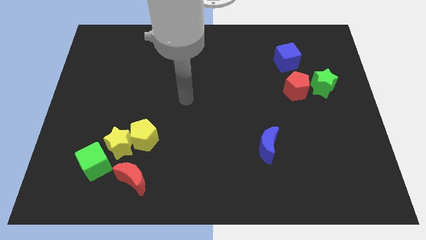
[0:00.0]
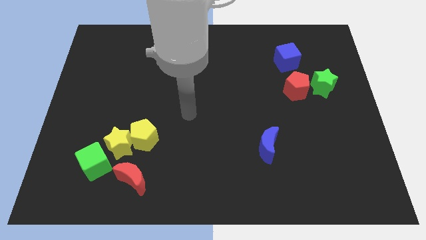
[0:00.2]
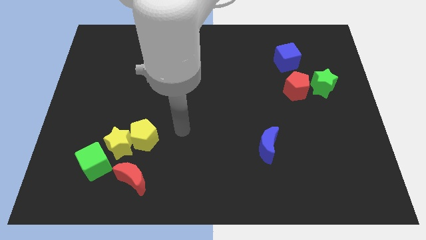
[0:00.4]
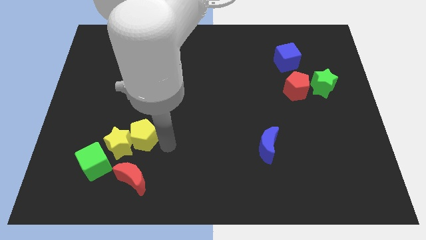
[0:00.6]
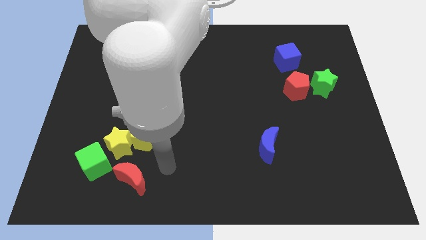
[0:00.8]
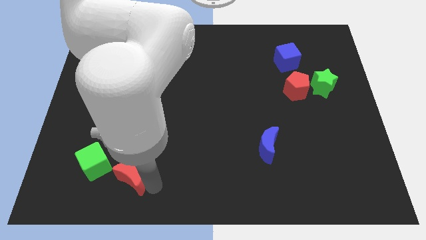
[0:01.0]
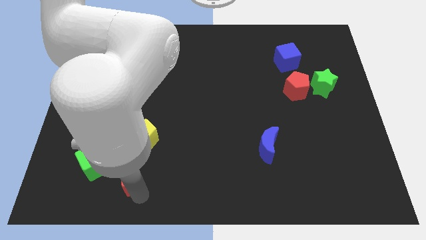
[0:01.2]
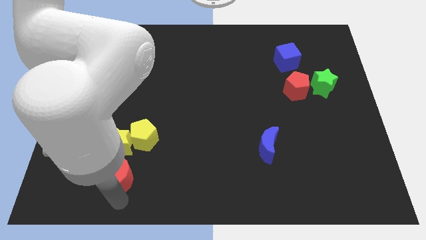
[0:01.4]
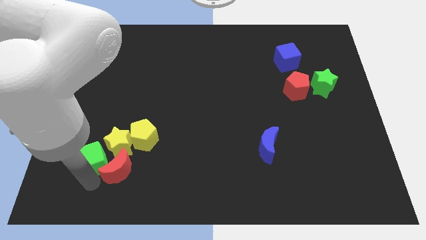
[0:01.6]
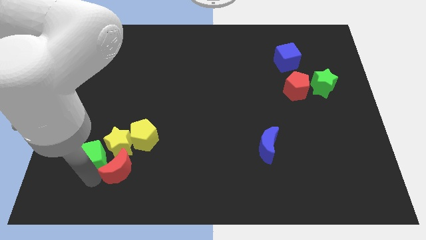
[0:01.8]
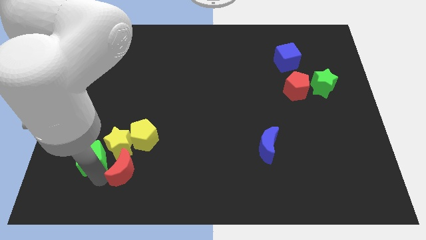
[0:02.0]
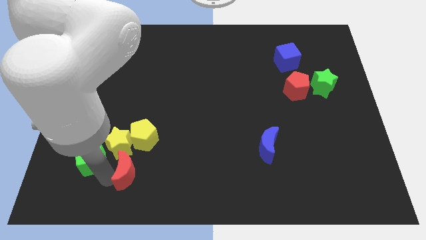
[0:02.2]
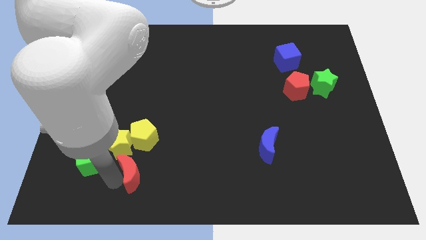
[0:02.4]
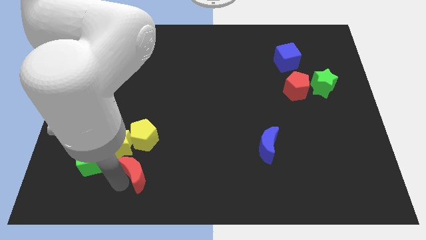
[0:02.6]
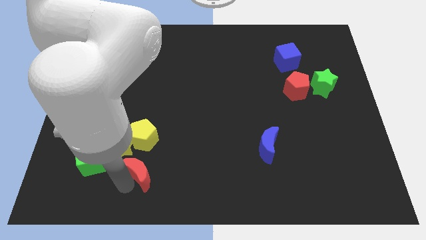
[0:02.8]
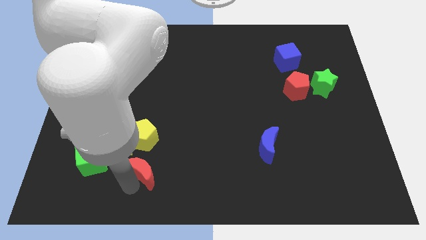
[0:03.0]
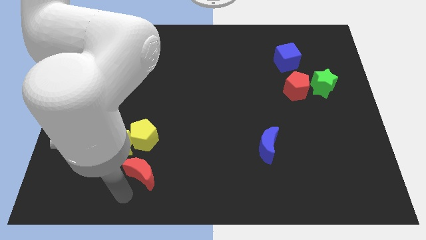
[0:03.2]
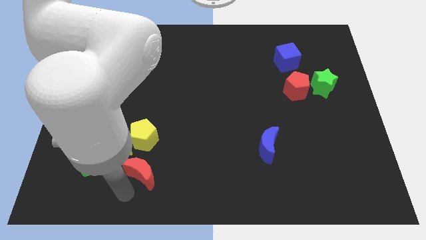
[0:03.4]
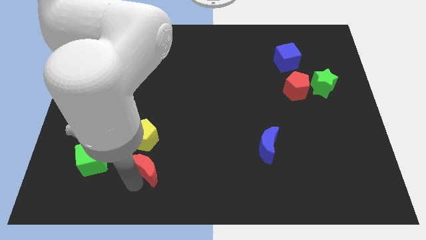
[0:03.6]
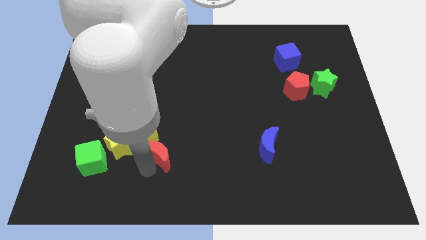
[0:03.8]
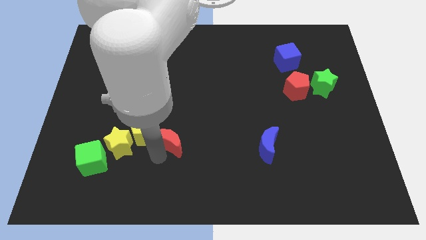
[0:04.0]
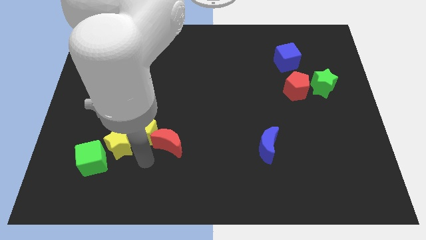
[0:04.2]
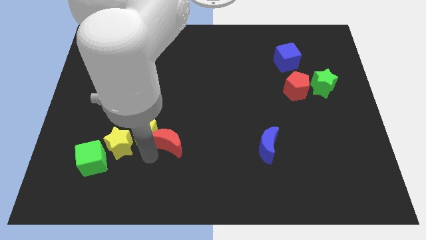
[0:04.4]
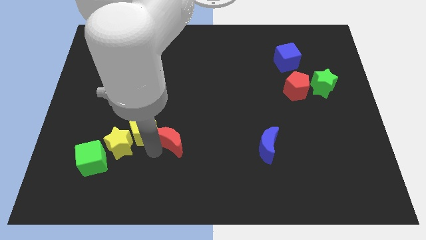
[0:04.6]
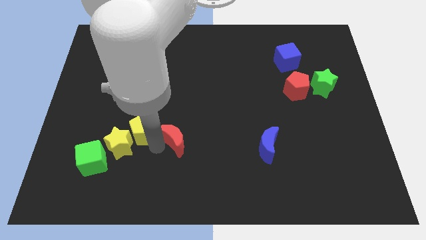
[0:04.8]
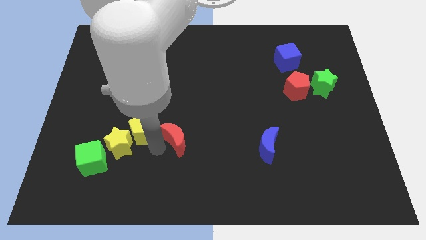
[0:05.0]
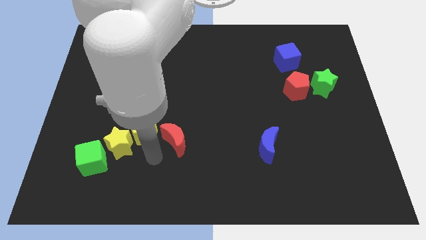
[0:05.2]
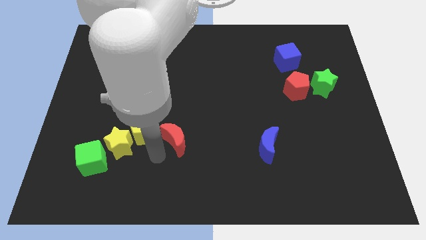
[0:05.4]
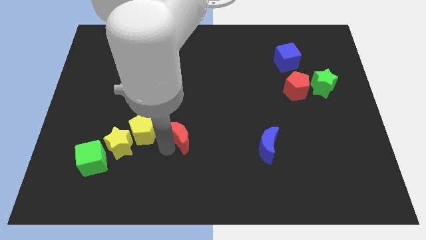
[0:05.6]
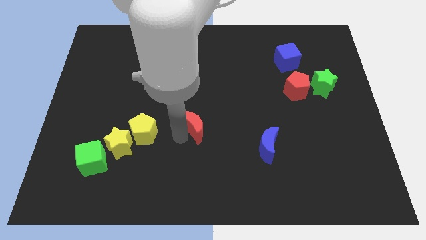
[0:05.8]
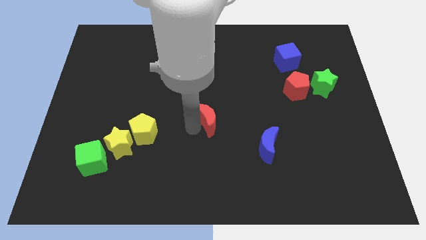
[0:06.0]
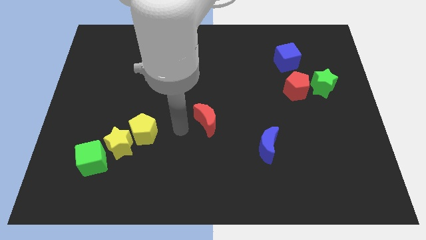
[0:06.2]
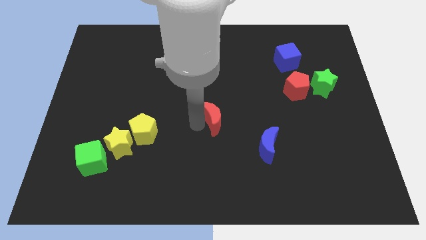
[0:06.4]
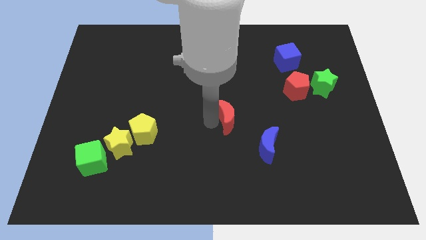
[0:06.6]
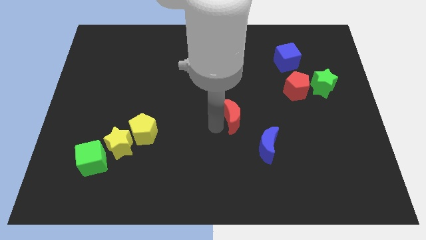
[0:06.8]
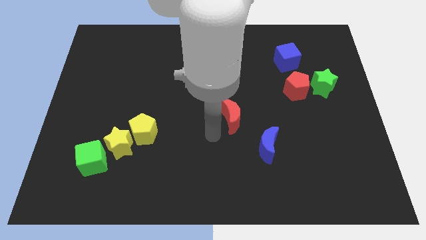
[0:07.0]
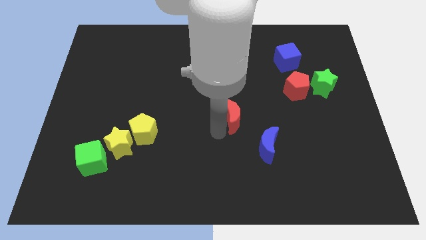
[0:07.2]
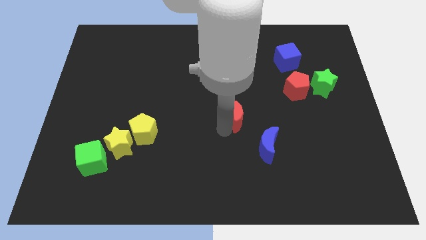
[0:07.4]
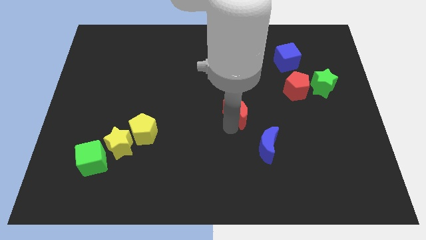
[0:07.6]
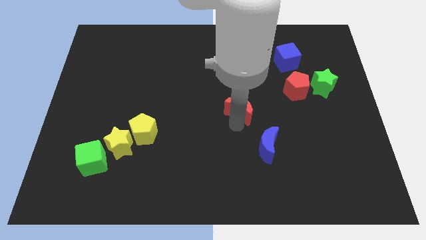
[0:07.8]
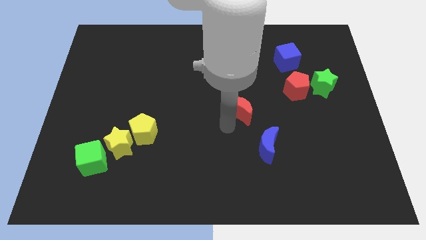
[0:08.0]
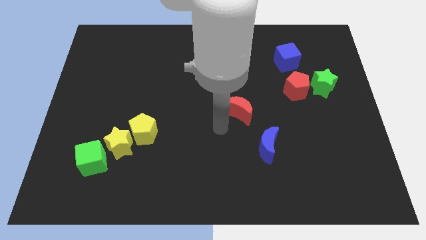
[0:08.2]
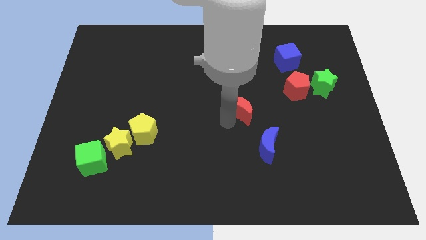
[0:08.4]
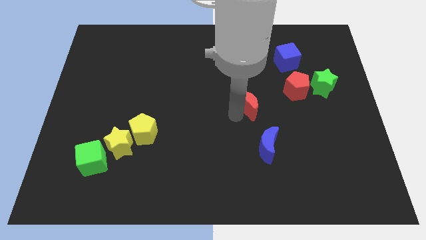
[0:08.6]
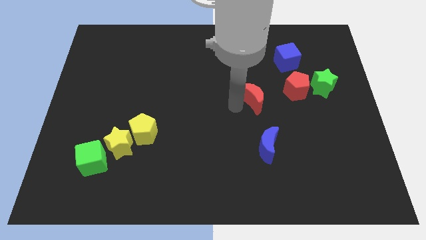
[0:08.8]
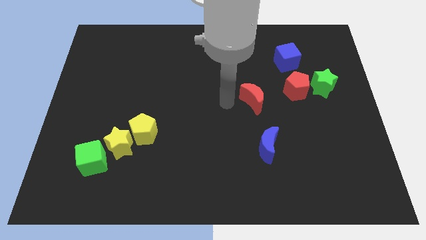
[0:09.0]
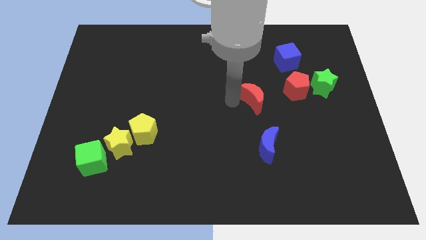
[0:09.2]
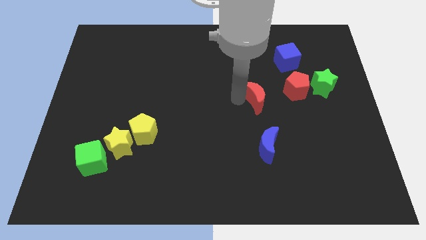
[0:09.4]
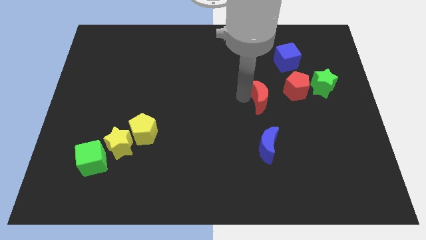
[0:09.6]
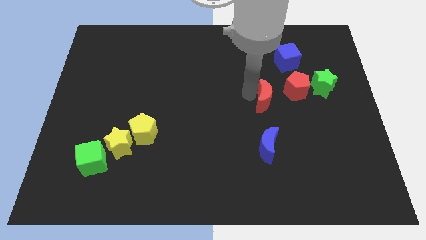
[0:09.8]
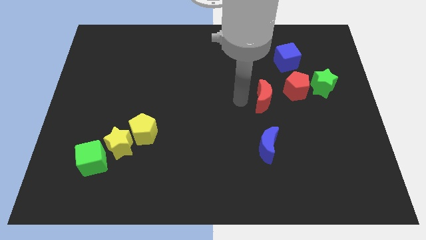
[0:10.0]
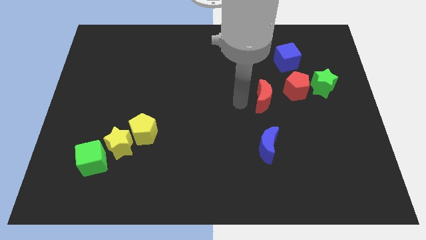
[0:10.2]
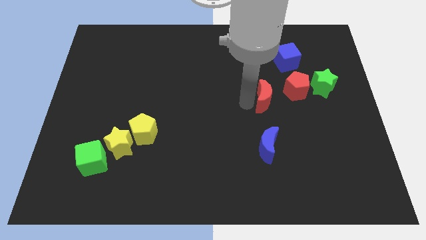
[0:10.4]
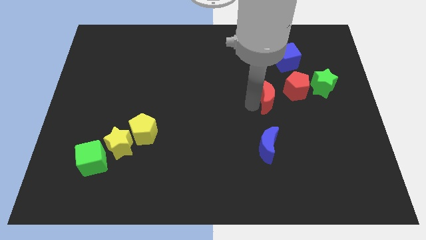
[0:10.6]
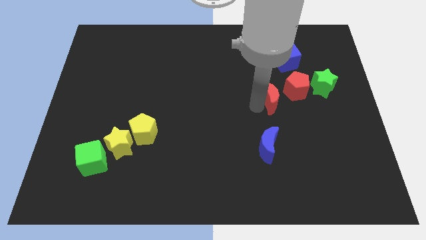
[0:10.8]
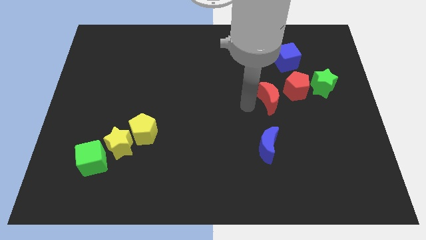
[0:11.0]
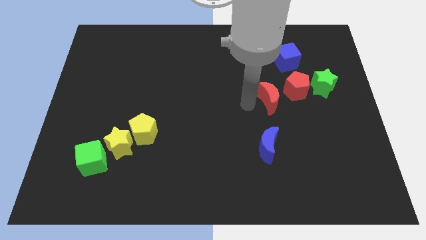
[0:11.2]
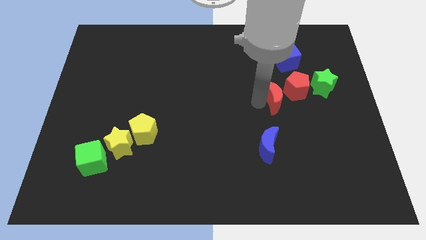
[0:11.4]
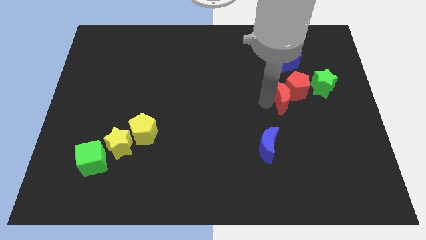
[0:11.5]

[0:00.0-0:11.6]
move the red moon close to the red pentagon

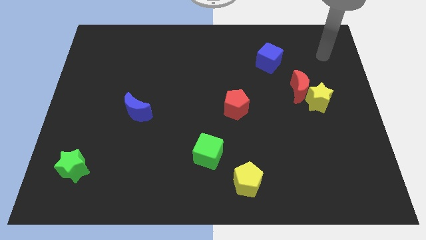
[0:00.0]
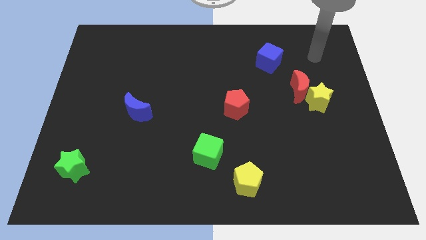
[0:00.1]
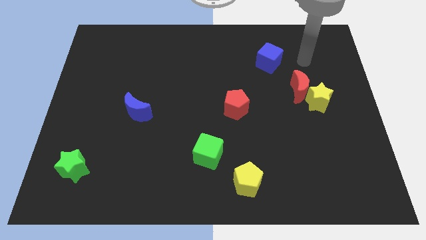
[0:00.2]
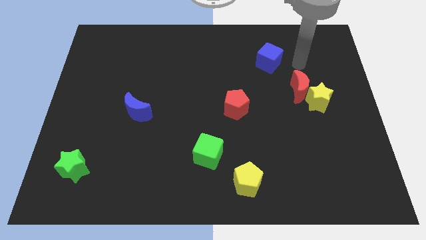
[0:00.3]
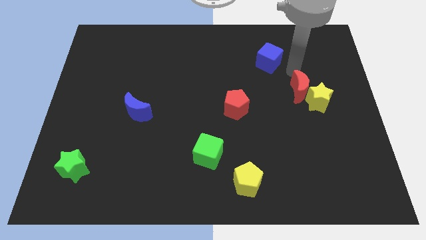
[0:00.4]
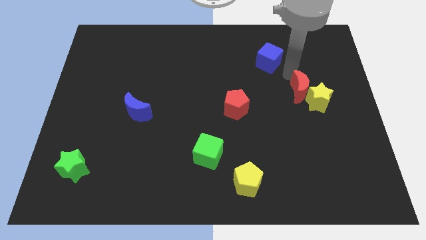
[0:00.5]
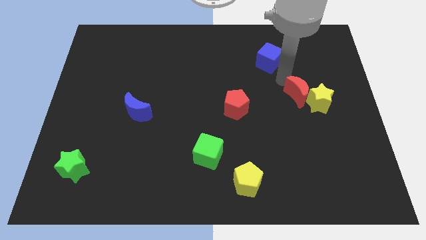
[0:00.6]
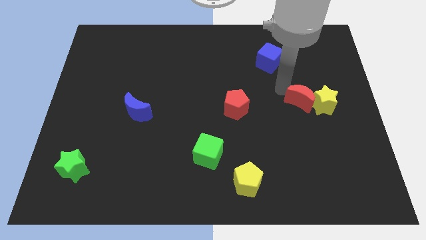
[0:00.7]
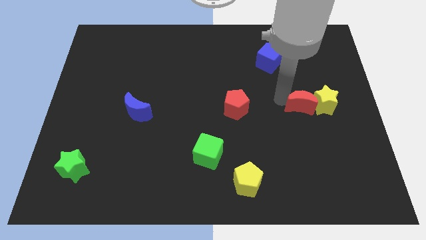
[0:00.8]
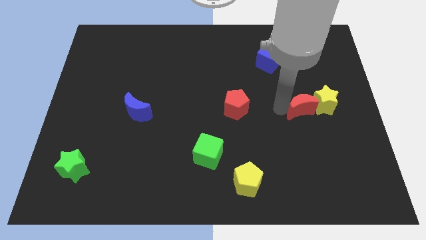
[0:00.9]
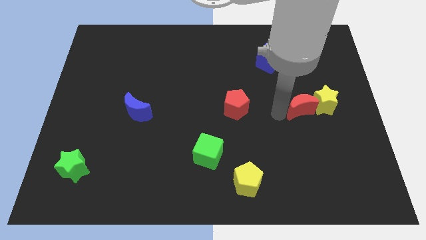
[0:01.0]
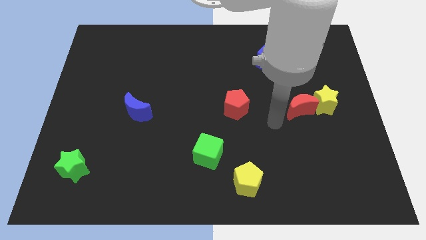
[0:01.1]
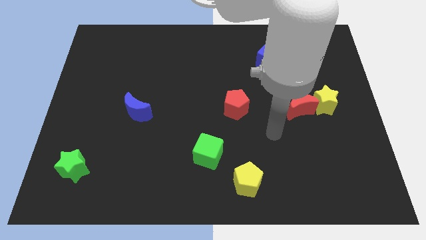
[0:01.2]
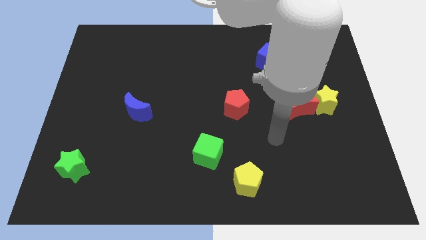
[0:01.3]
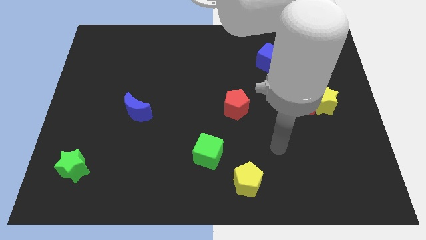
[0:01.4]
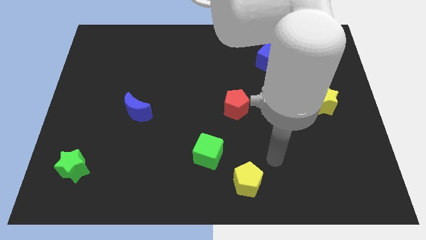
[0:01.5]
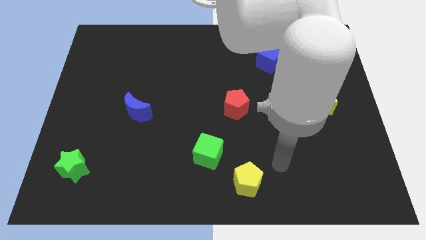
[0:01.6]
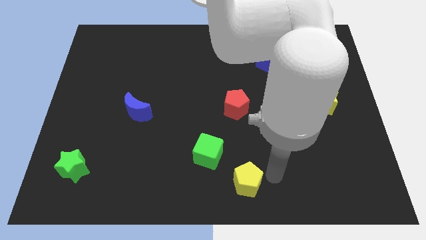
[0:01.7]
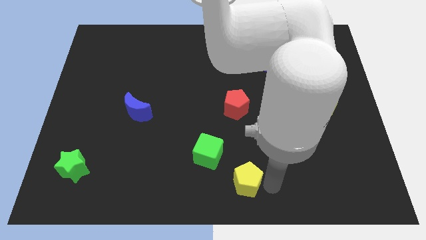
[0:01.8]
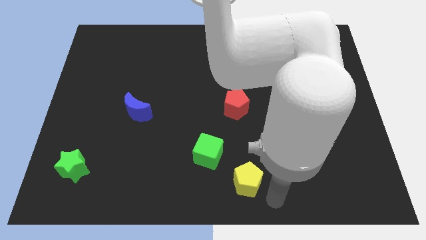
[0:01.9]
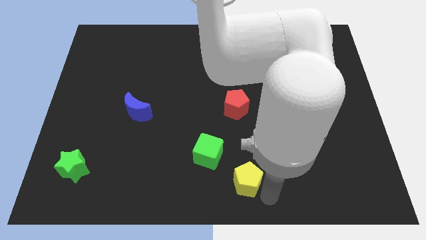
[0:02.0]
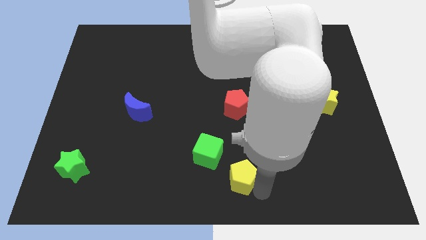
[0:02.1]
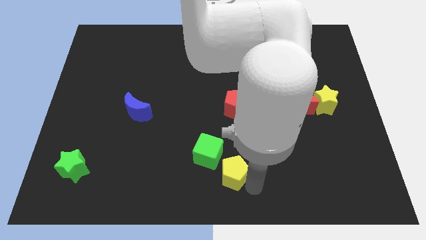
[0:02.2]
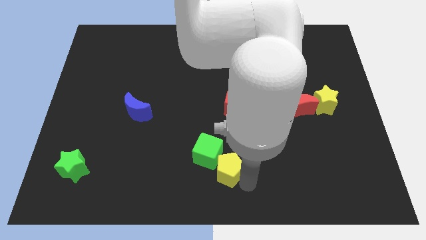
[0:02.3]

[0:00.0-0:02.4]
slide the yellow pentagon to the green cube
